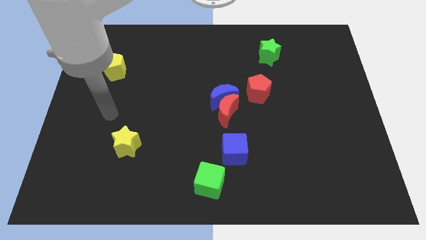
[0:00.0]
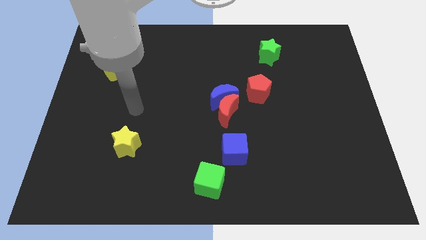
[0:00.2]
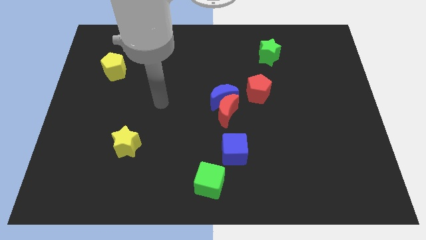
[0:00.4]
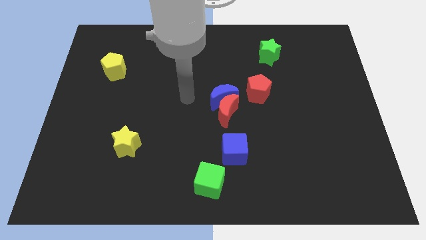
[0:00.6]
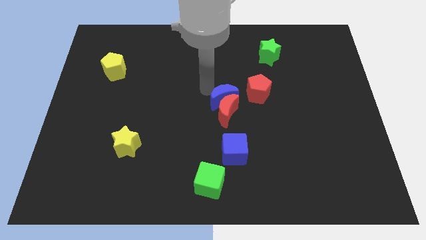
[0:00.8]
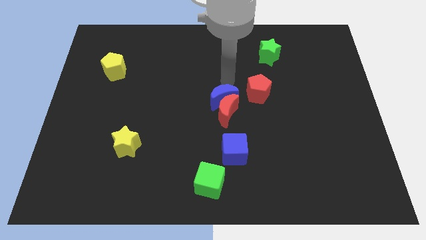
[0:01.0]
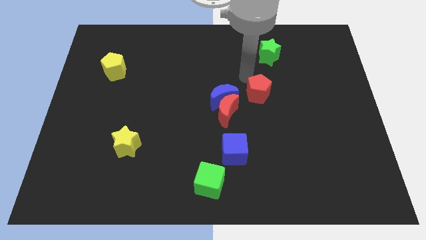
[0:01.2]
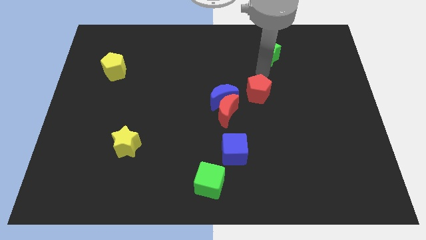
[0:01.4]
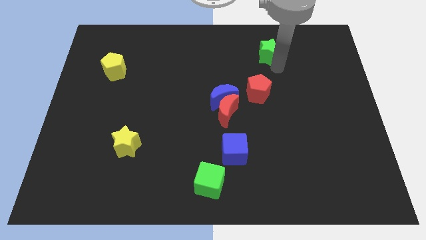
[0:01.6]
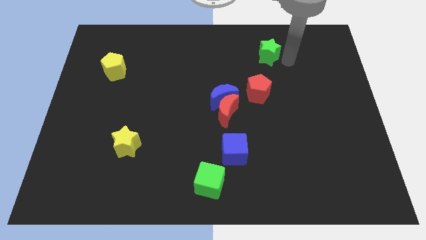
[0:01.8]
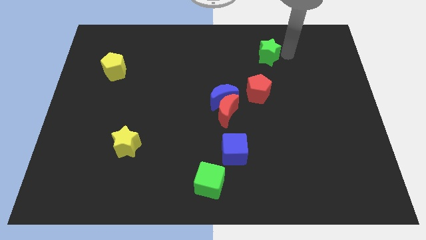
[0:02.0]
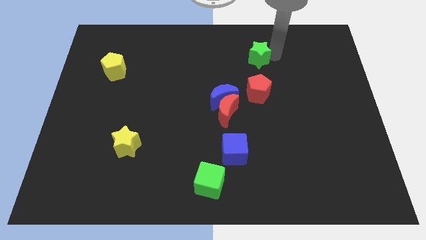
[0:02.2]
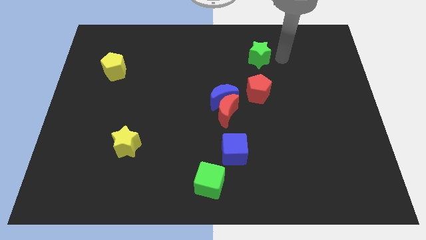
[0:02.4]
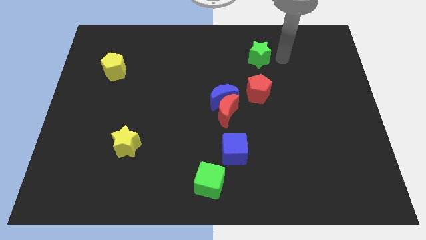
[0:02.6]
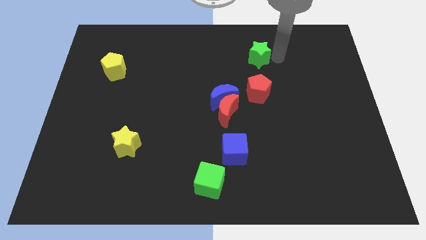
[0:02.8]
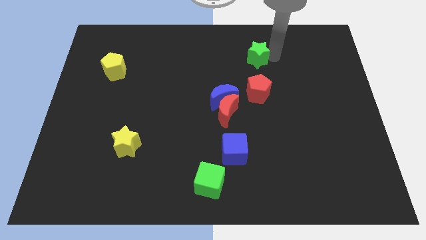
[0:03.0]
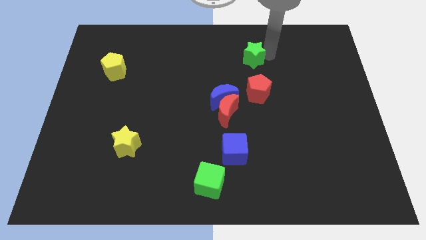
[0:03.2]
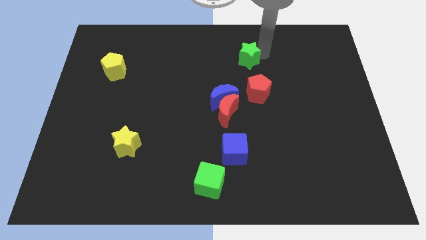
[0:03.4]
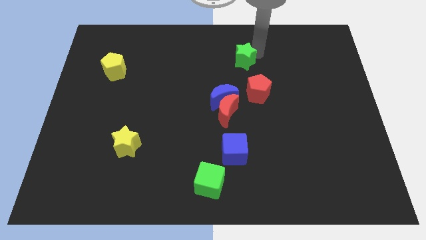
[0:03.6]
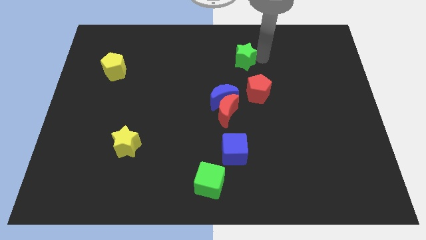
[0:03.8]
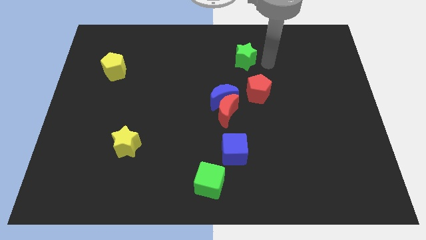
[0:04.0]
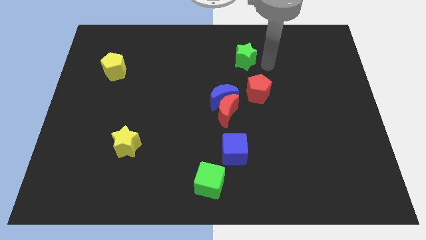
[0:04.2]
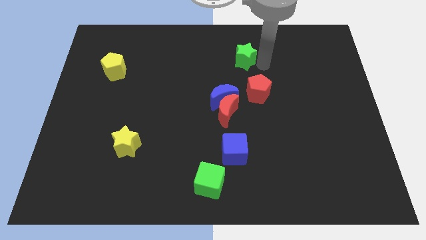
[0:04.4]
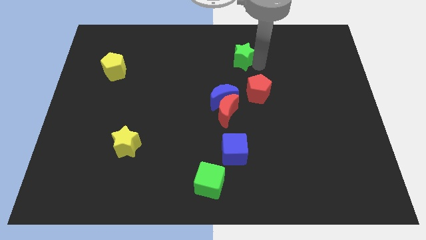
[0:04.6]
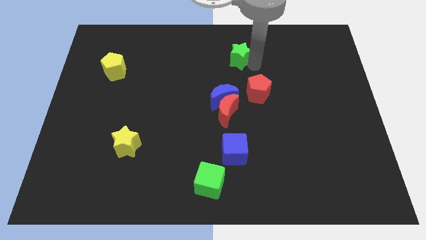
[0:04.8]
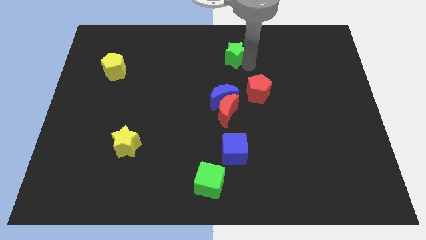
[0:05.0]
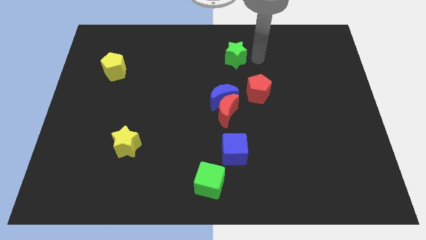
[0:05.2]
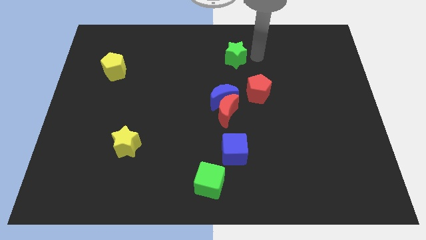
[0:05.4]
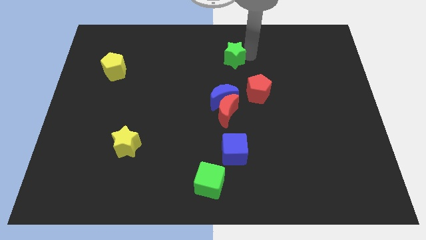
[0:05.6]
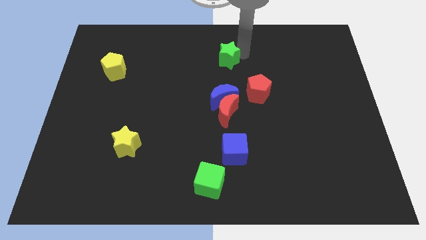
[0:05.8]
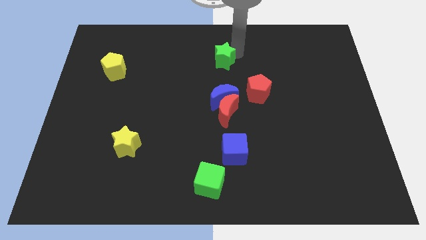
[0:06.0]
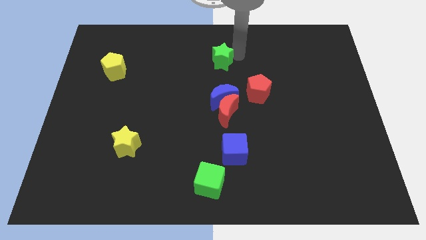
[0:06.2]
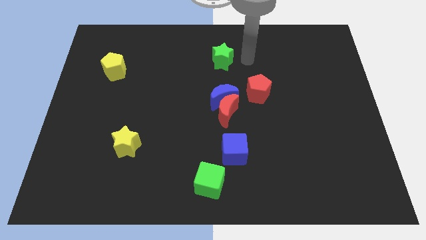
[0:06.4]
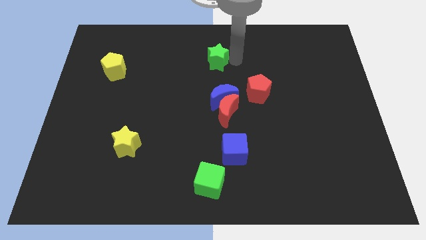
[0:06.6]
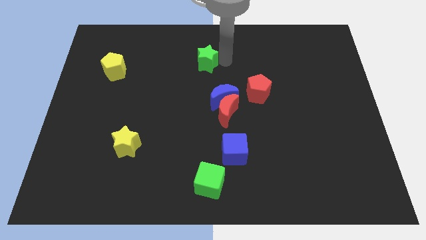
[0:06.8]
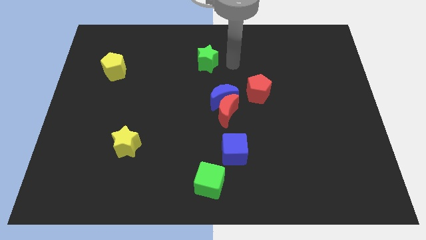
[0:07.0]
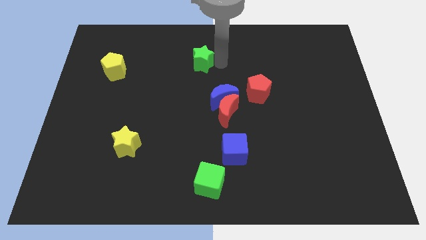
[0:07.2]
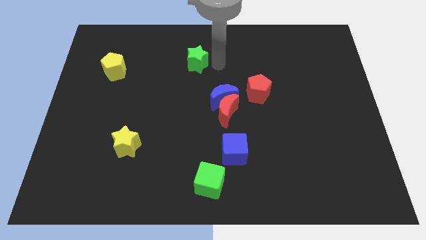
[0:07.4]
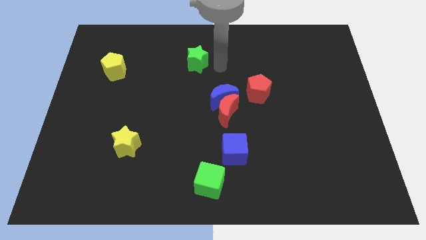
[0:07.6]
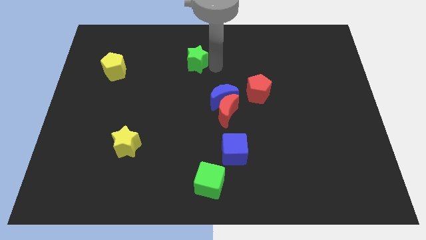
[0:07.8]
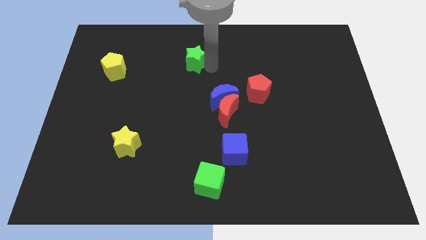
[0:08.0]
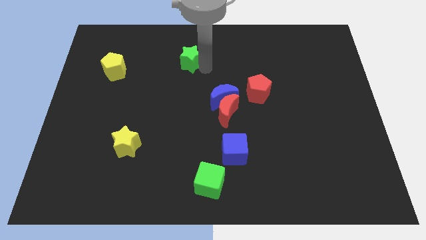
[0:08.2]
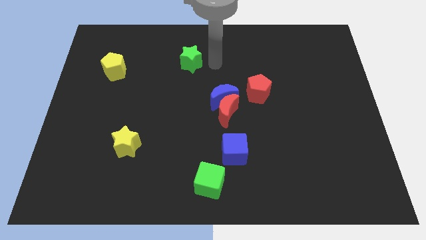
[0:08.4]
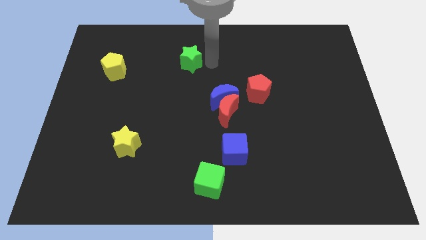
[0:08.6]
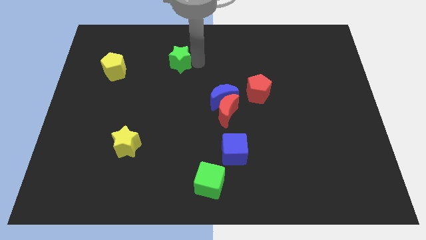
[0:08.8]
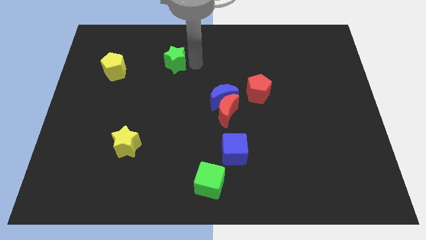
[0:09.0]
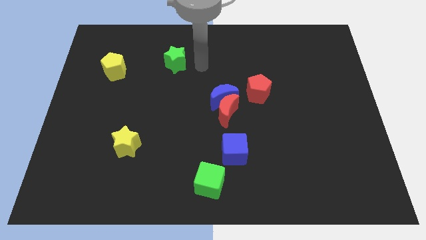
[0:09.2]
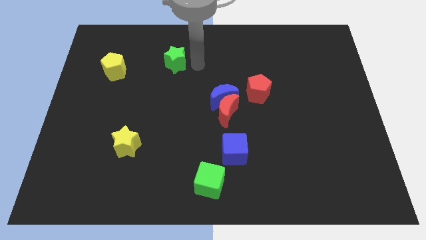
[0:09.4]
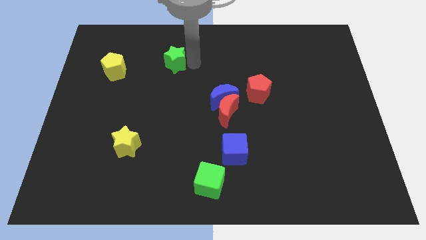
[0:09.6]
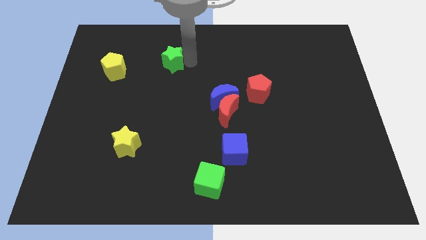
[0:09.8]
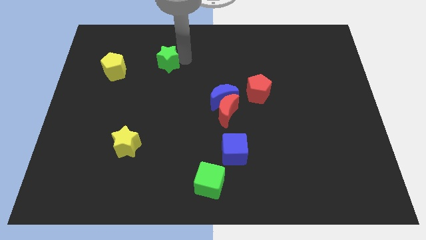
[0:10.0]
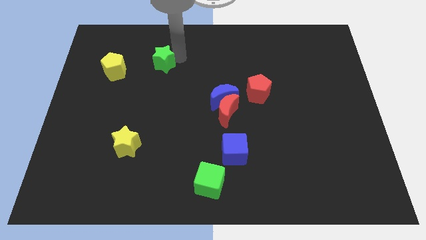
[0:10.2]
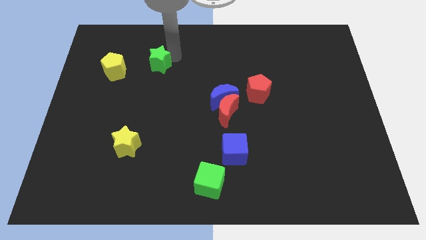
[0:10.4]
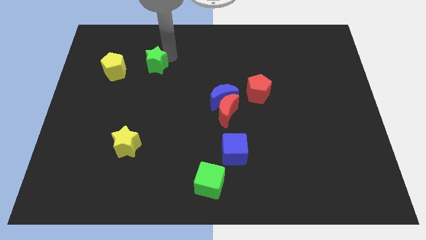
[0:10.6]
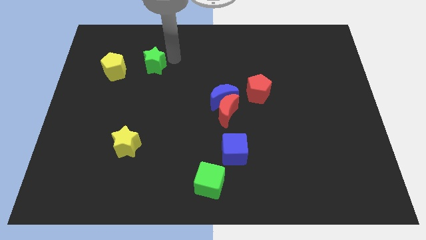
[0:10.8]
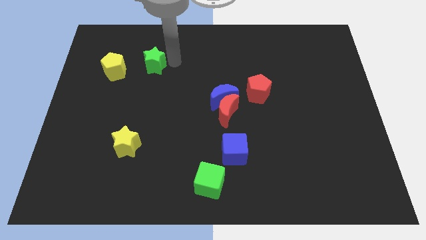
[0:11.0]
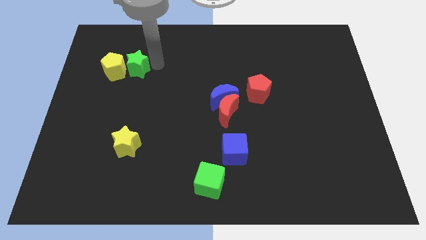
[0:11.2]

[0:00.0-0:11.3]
move the green star close to the yellow pentagon

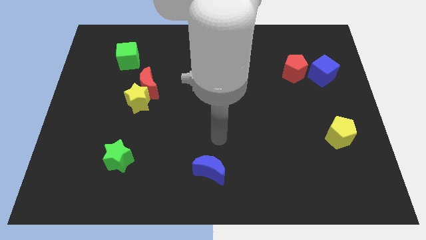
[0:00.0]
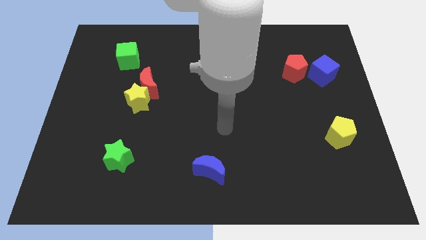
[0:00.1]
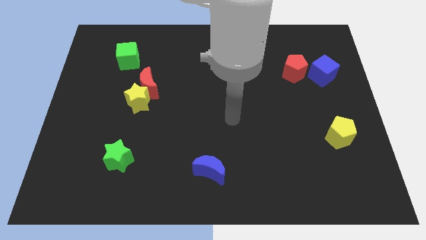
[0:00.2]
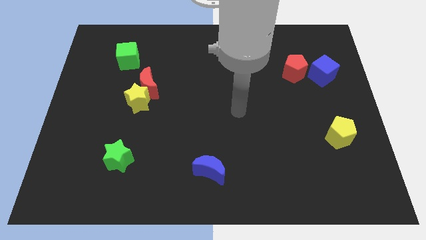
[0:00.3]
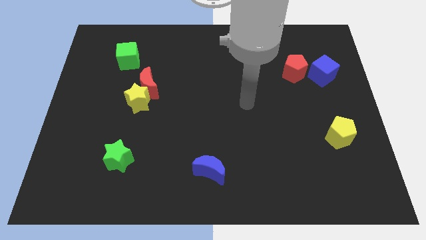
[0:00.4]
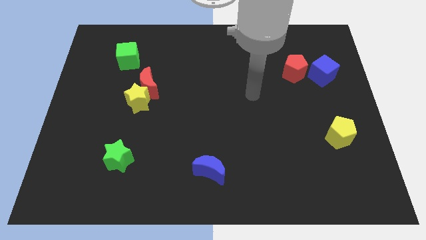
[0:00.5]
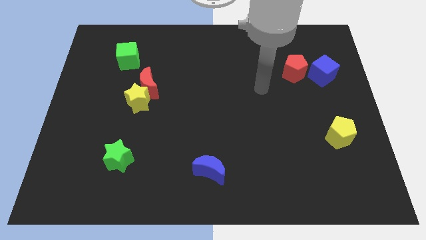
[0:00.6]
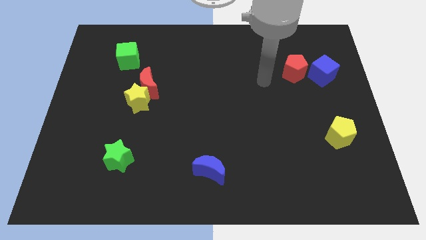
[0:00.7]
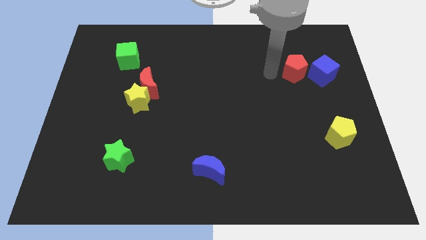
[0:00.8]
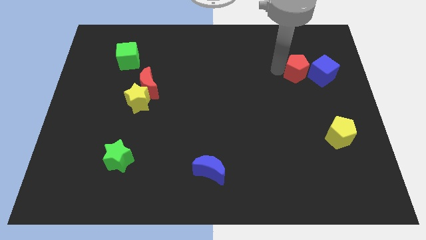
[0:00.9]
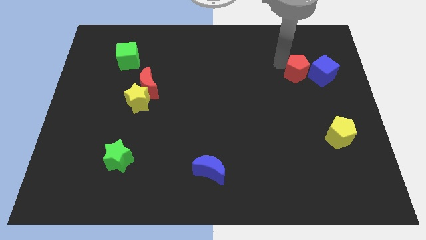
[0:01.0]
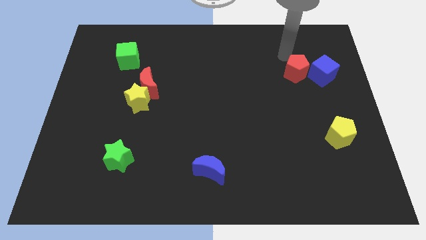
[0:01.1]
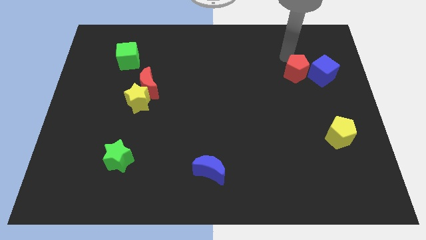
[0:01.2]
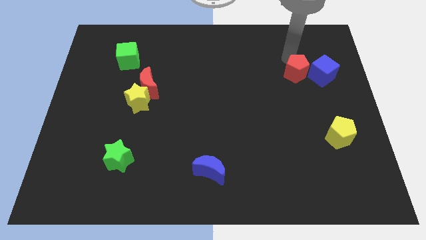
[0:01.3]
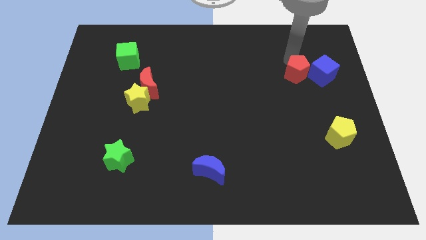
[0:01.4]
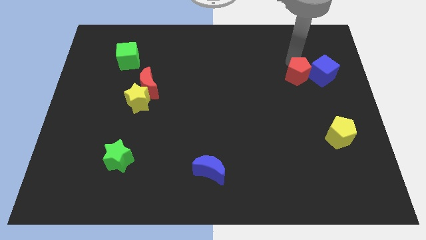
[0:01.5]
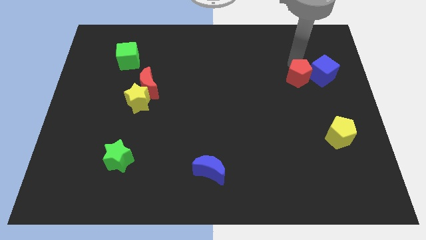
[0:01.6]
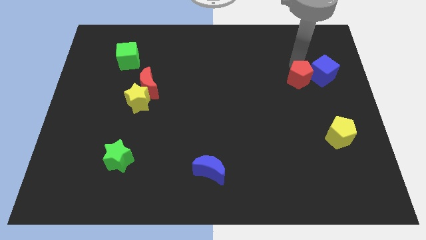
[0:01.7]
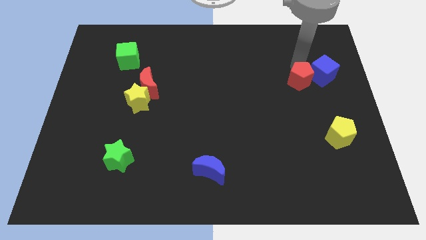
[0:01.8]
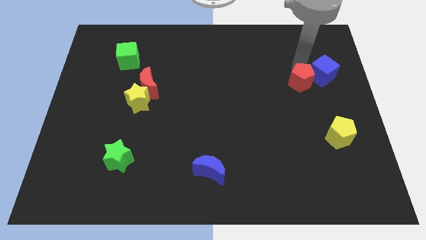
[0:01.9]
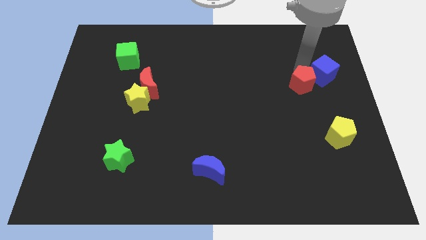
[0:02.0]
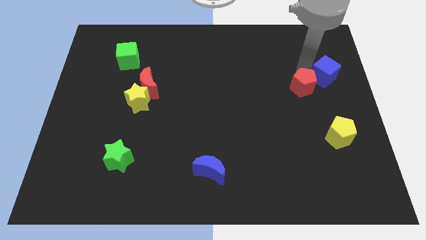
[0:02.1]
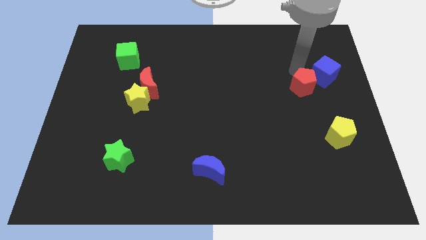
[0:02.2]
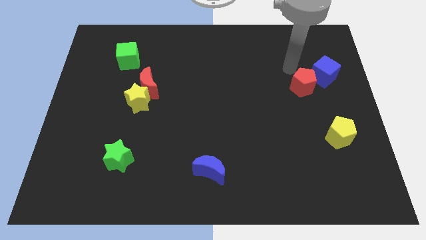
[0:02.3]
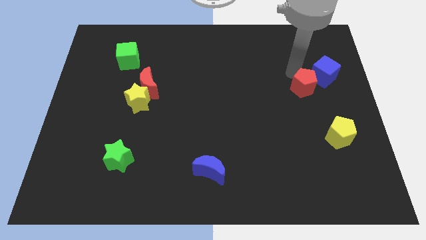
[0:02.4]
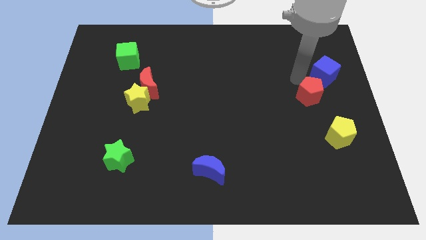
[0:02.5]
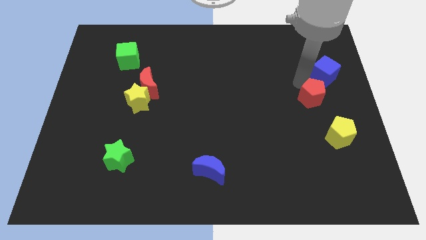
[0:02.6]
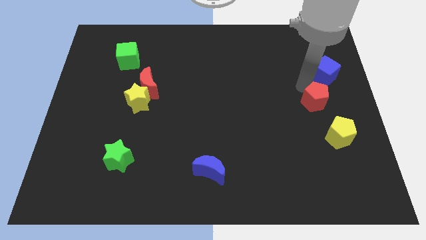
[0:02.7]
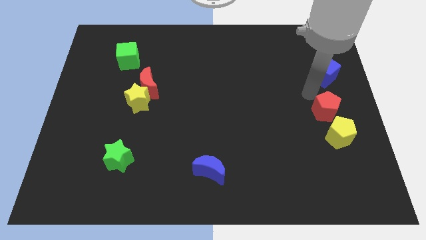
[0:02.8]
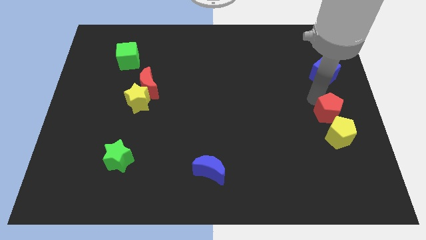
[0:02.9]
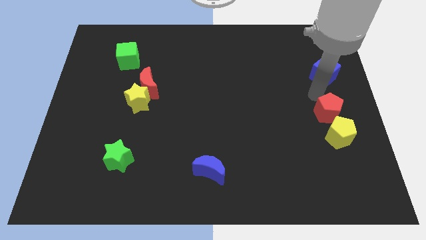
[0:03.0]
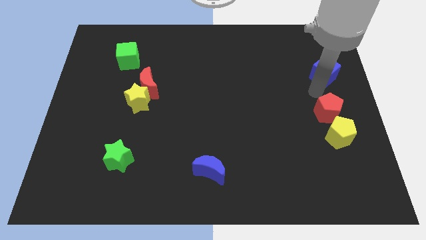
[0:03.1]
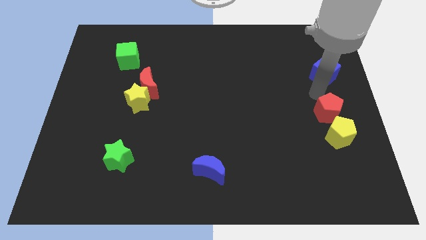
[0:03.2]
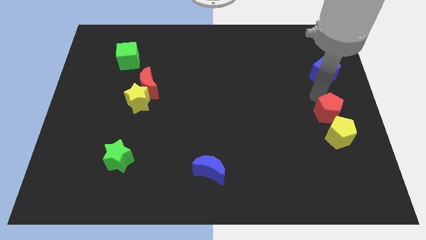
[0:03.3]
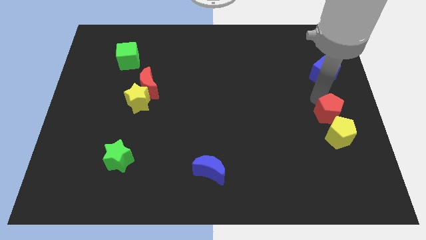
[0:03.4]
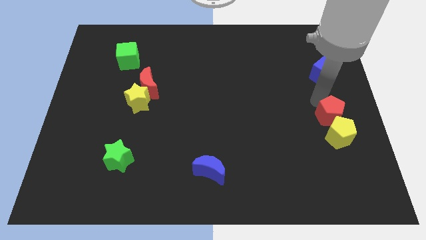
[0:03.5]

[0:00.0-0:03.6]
slide the red pentagon close to the yellow pentagon
